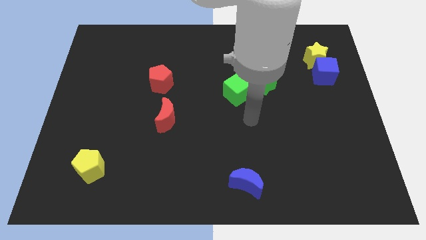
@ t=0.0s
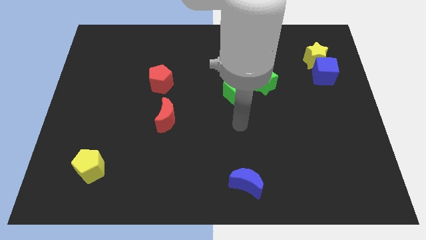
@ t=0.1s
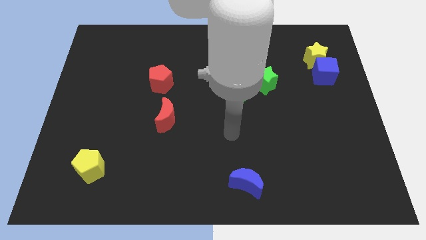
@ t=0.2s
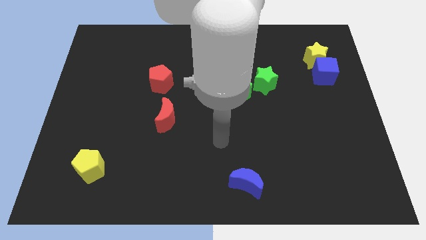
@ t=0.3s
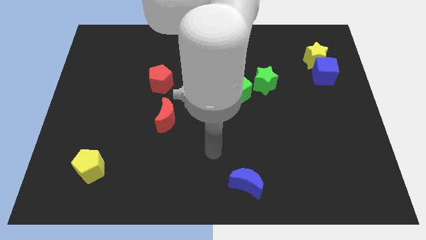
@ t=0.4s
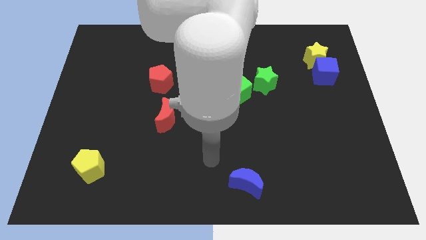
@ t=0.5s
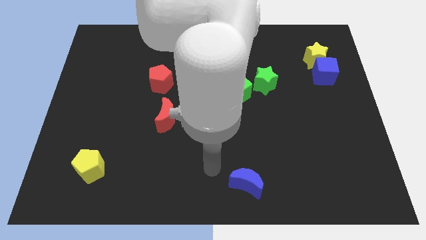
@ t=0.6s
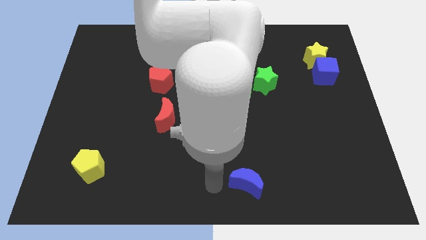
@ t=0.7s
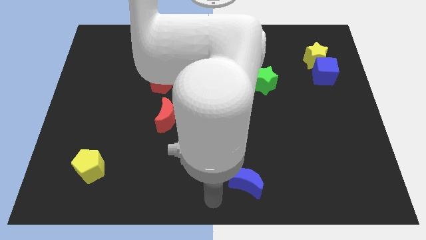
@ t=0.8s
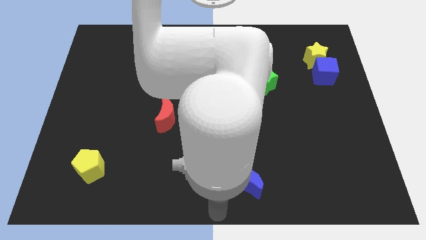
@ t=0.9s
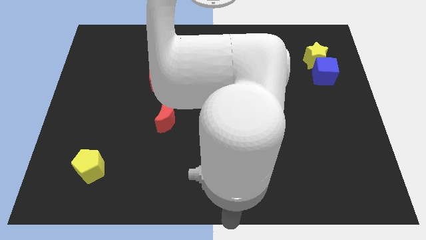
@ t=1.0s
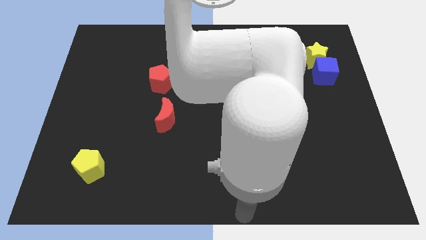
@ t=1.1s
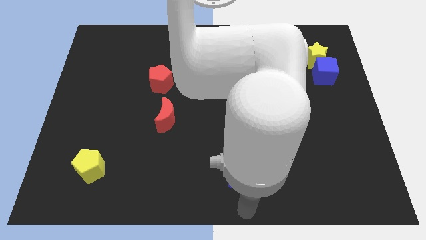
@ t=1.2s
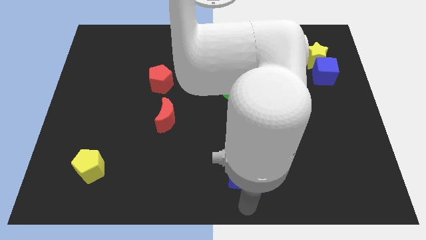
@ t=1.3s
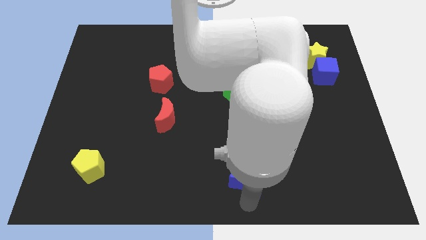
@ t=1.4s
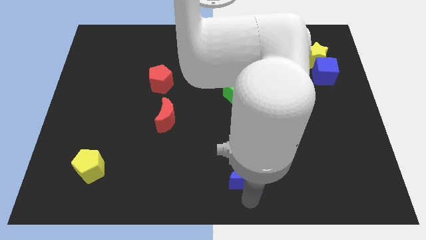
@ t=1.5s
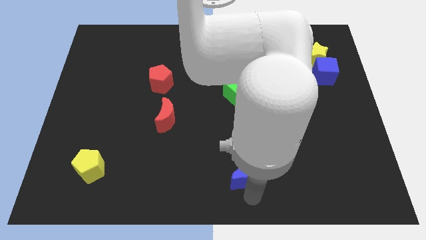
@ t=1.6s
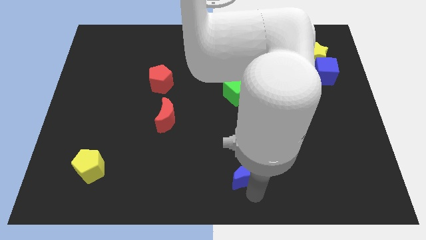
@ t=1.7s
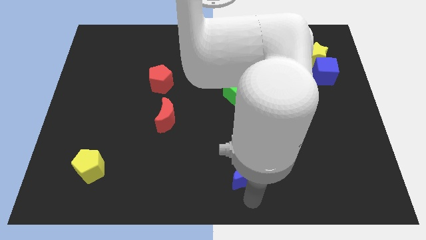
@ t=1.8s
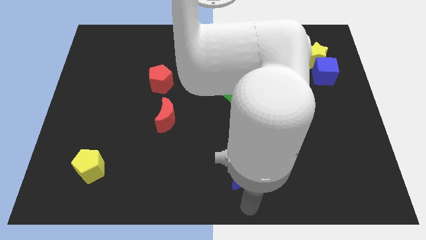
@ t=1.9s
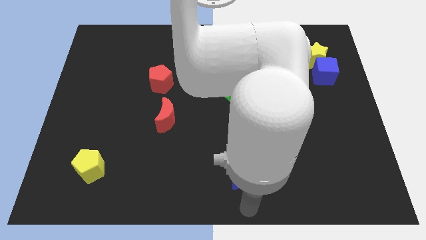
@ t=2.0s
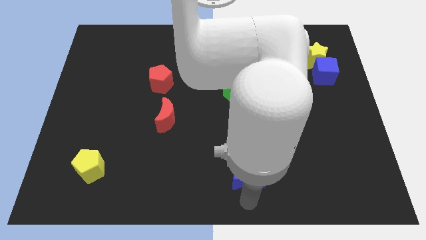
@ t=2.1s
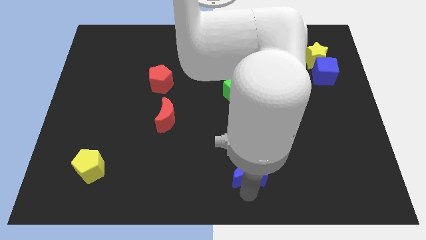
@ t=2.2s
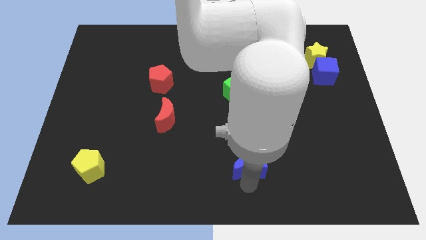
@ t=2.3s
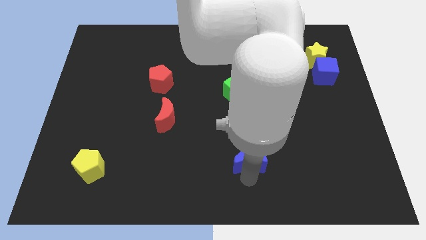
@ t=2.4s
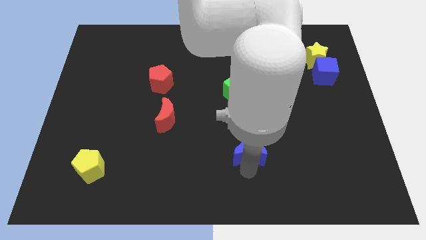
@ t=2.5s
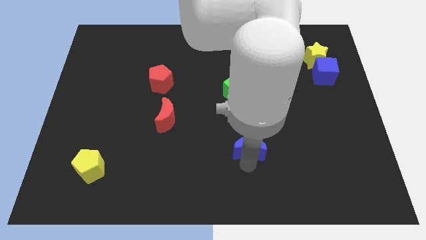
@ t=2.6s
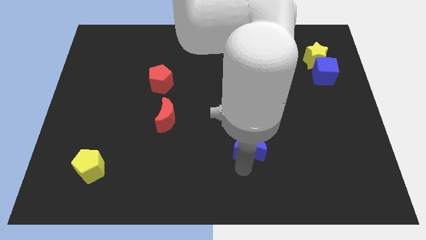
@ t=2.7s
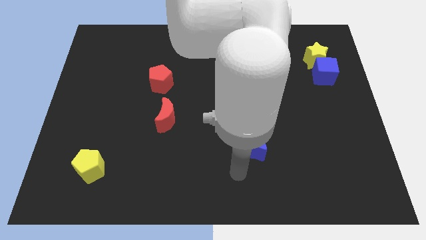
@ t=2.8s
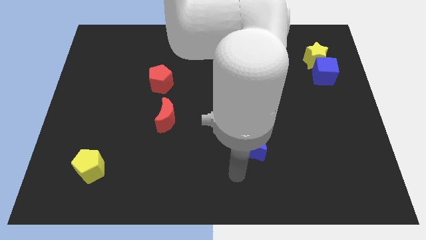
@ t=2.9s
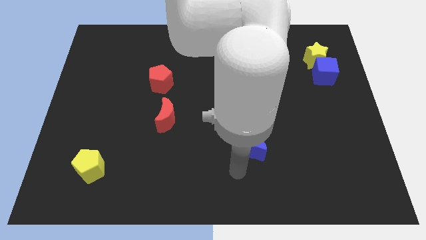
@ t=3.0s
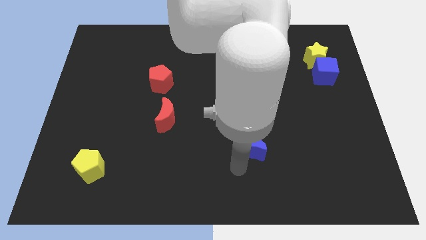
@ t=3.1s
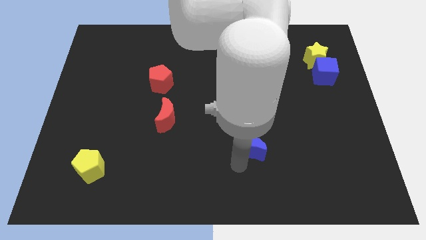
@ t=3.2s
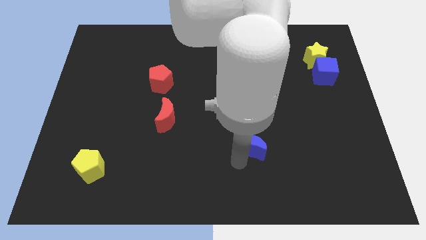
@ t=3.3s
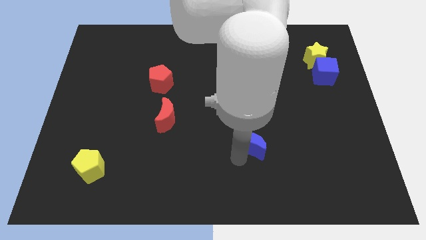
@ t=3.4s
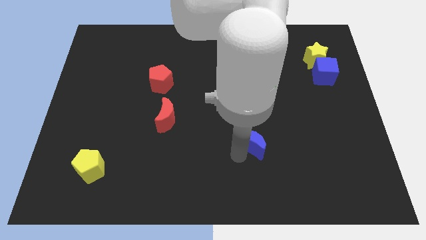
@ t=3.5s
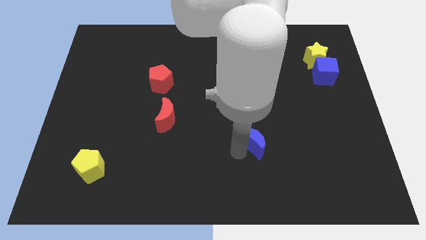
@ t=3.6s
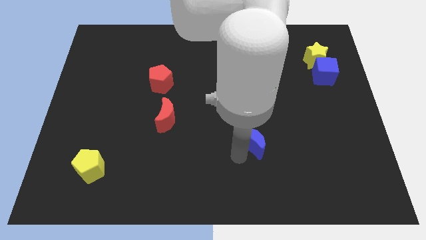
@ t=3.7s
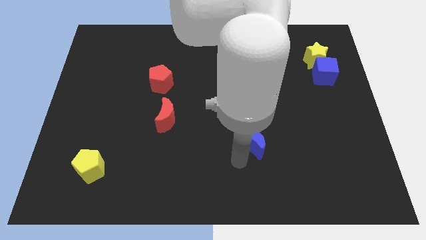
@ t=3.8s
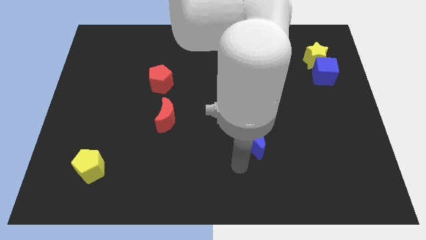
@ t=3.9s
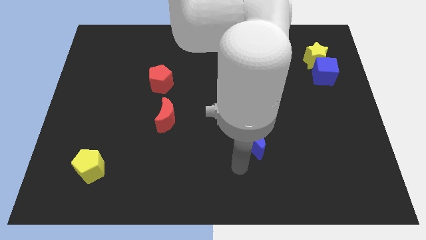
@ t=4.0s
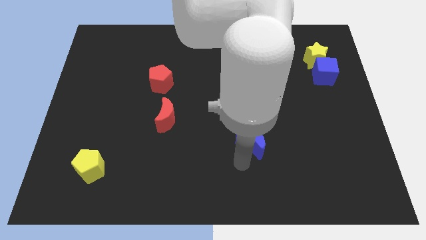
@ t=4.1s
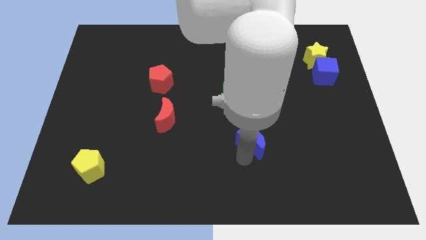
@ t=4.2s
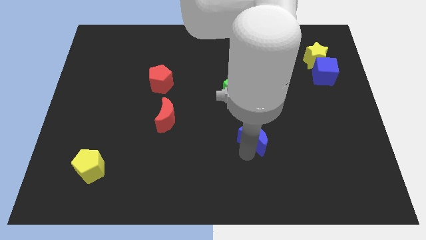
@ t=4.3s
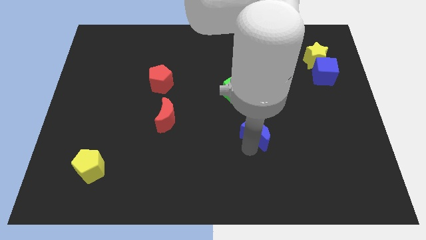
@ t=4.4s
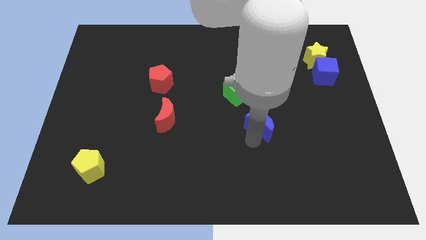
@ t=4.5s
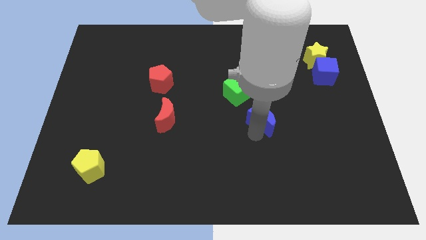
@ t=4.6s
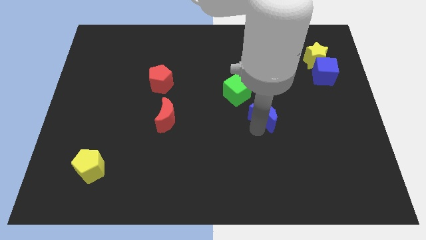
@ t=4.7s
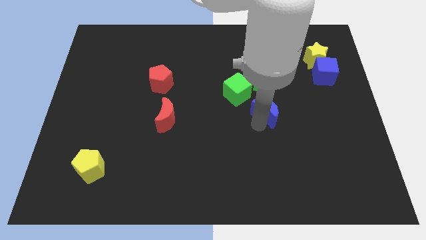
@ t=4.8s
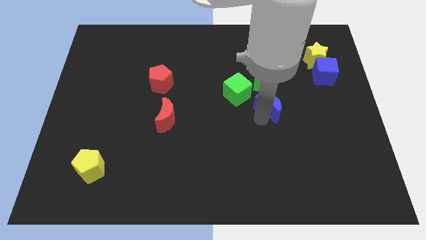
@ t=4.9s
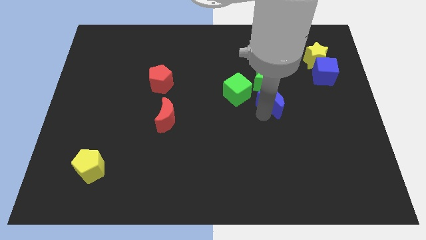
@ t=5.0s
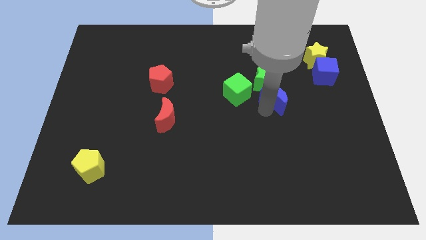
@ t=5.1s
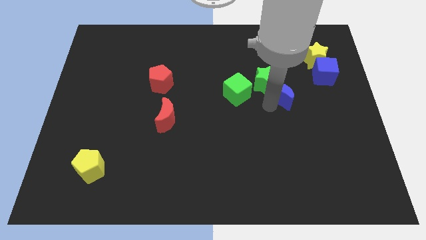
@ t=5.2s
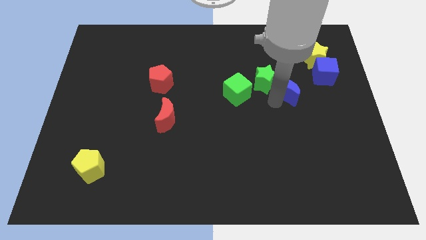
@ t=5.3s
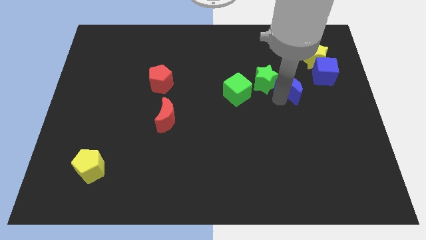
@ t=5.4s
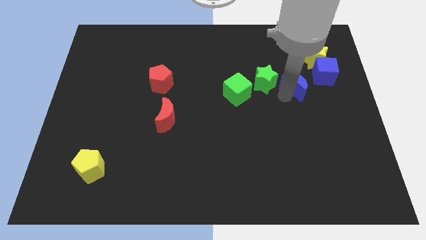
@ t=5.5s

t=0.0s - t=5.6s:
push the blue moon to the bottom left side of the yellow star
